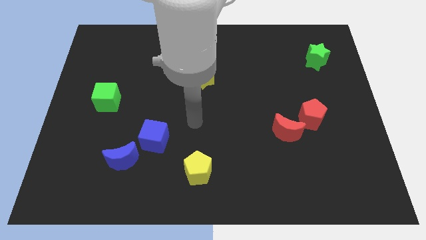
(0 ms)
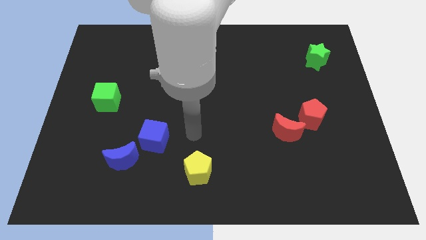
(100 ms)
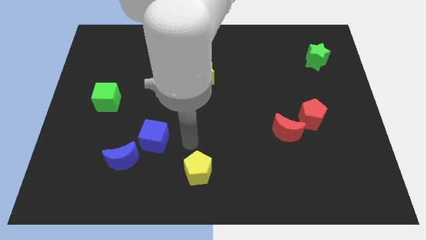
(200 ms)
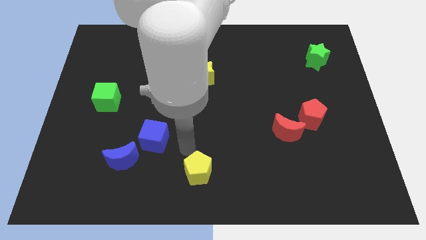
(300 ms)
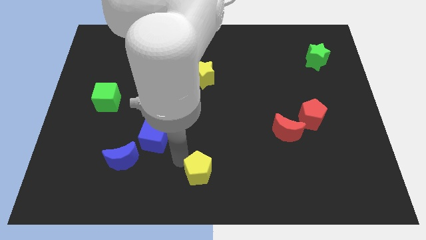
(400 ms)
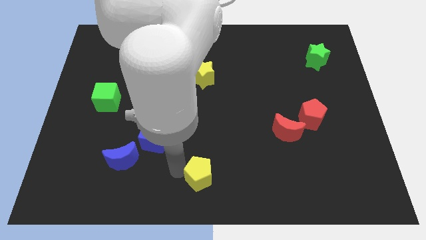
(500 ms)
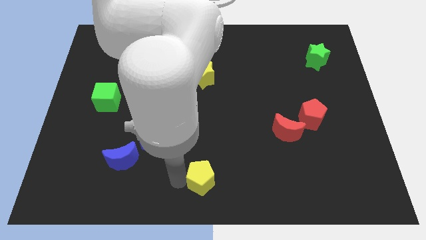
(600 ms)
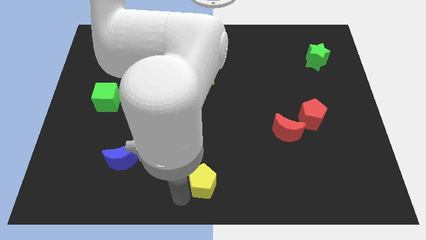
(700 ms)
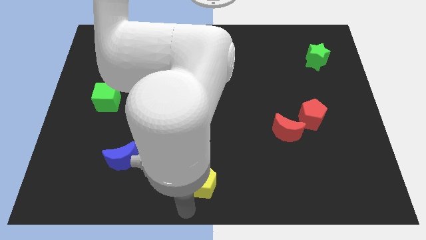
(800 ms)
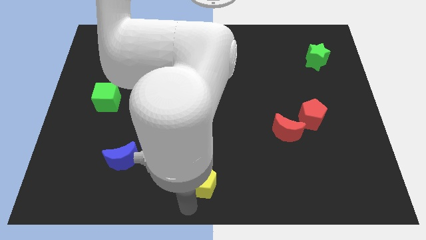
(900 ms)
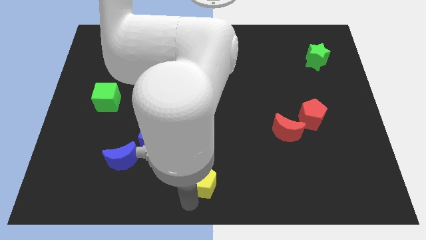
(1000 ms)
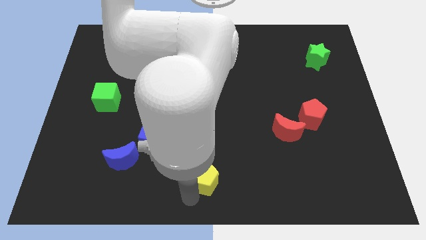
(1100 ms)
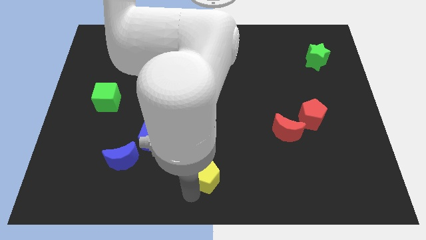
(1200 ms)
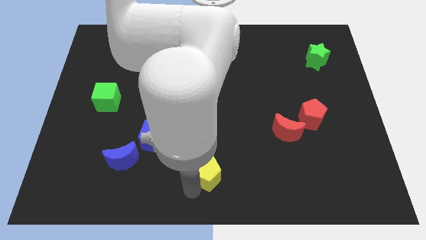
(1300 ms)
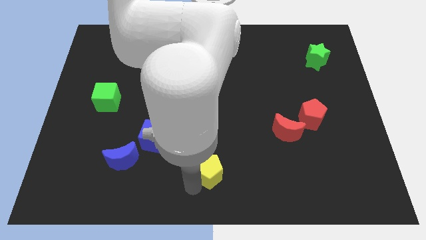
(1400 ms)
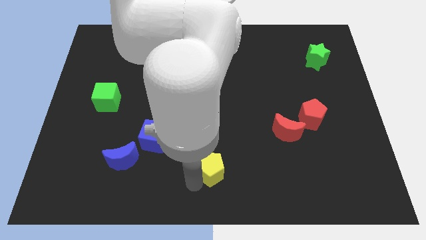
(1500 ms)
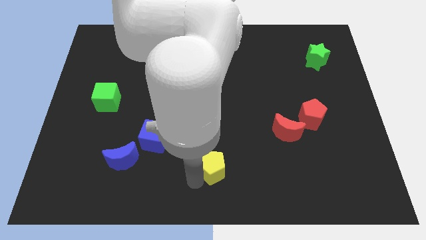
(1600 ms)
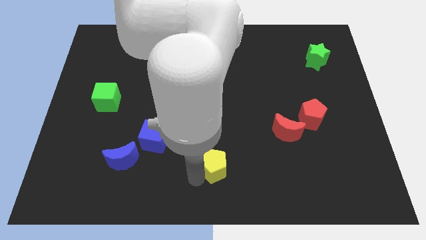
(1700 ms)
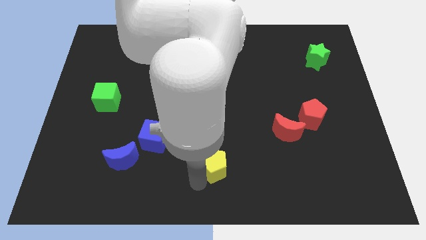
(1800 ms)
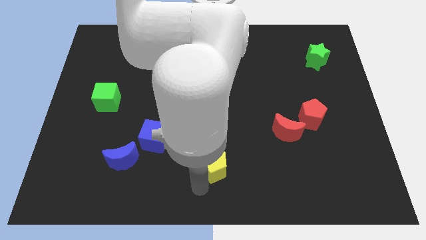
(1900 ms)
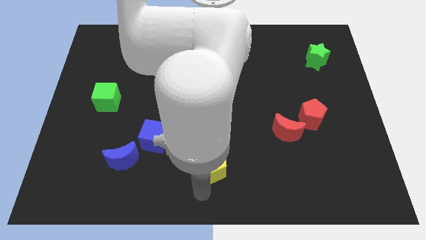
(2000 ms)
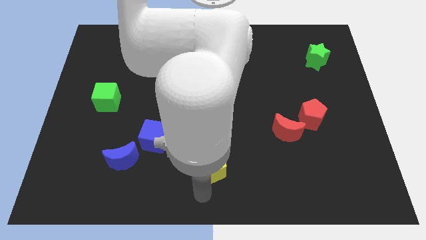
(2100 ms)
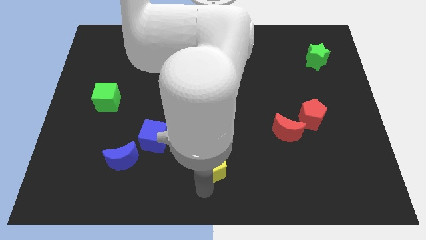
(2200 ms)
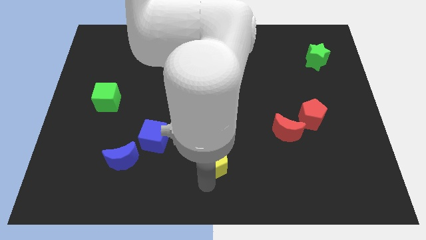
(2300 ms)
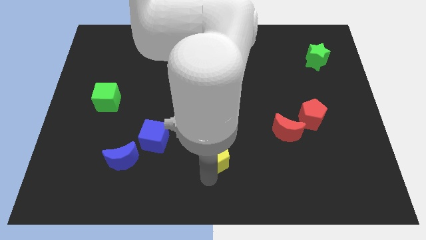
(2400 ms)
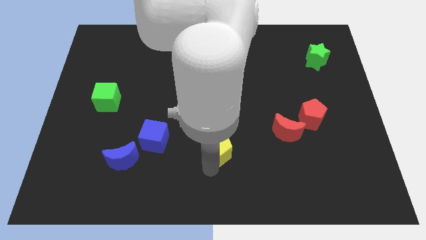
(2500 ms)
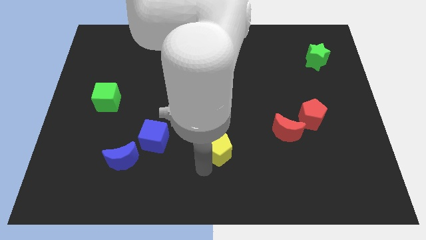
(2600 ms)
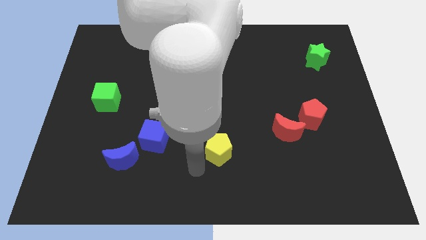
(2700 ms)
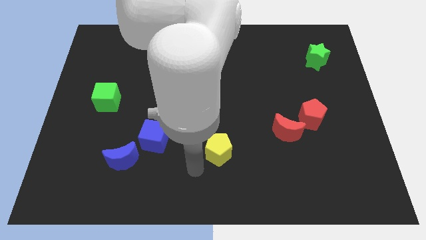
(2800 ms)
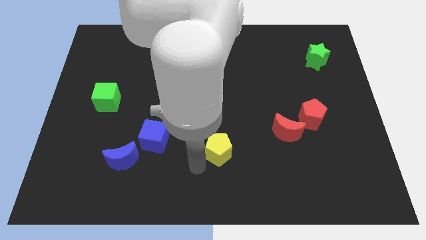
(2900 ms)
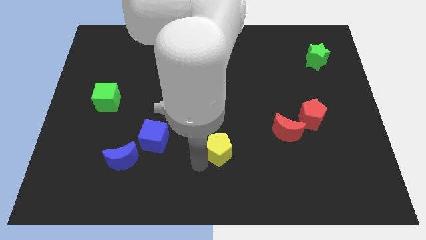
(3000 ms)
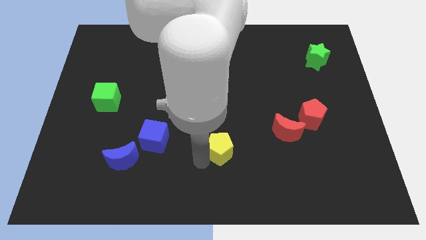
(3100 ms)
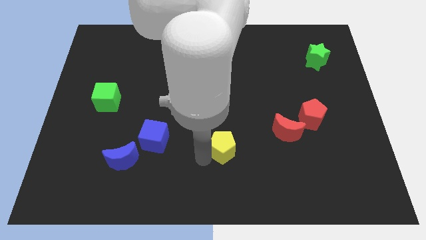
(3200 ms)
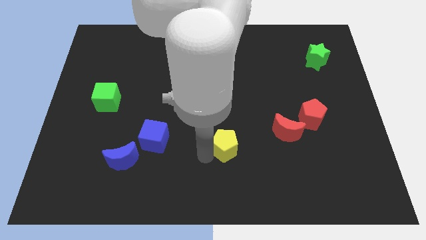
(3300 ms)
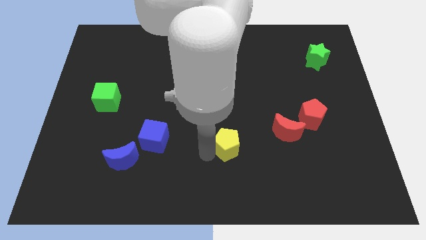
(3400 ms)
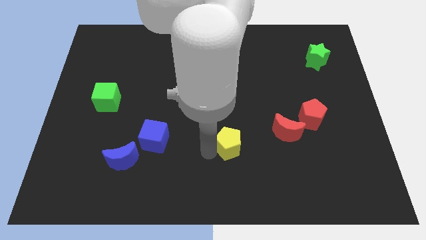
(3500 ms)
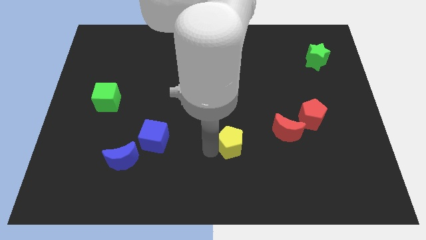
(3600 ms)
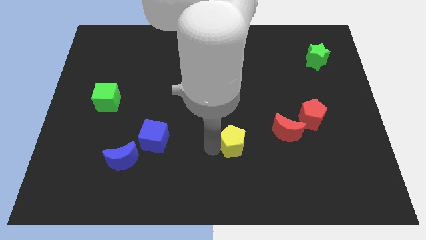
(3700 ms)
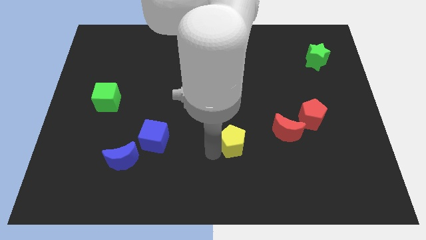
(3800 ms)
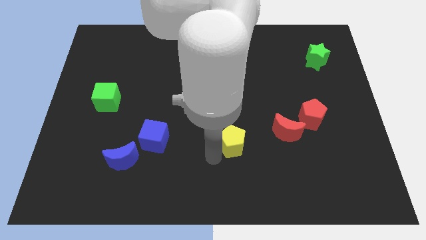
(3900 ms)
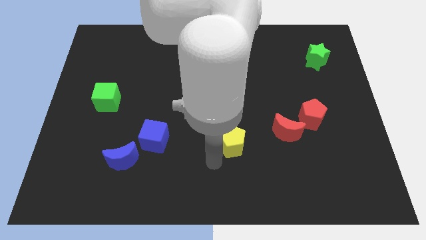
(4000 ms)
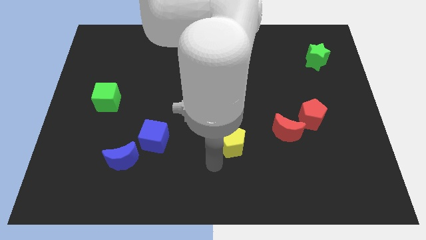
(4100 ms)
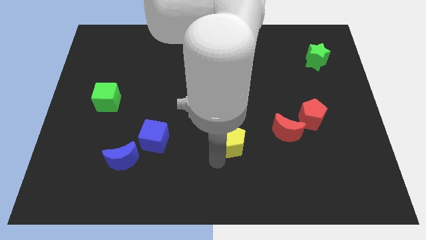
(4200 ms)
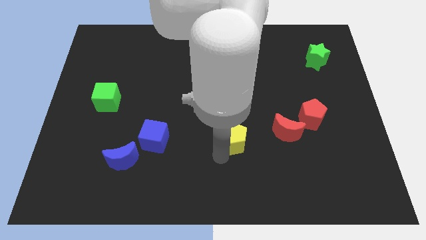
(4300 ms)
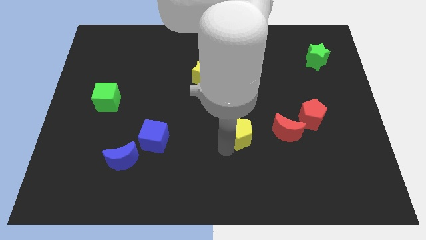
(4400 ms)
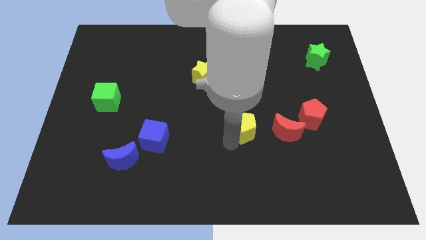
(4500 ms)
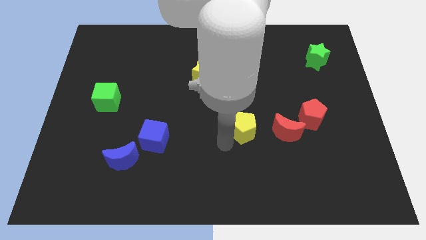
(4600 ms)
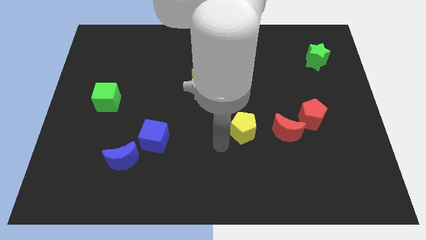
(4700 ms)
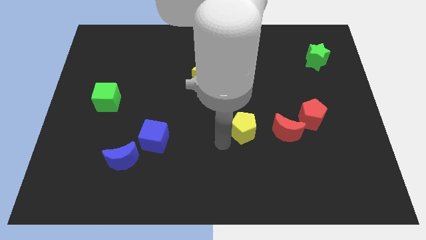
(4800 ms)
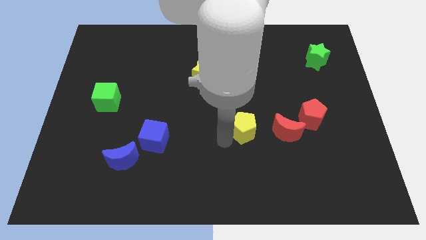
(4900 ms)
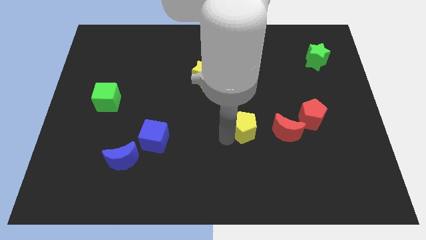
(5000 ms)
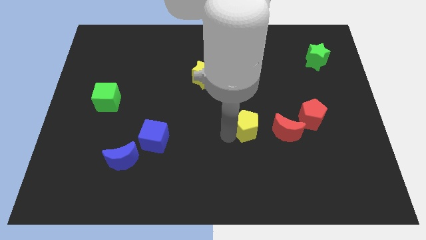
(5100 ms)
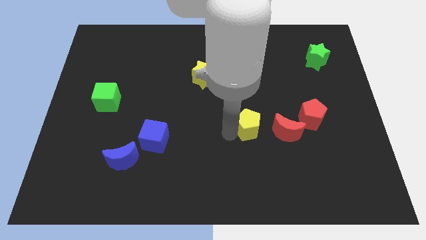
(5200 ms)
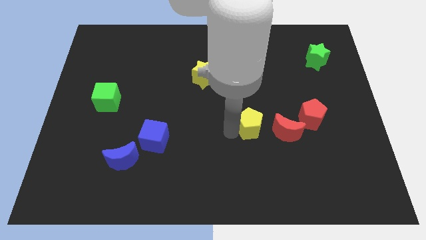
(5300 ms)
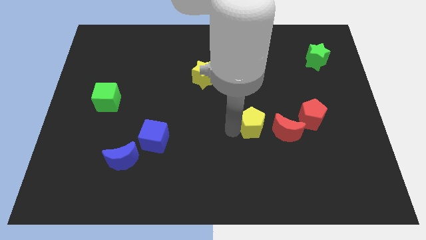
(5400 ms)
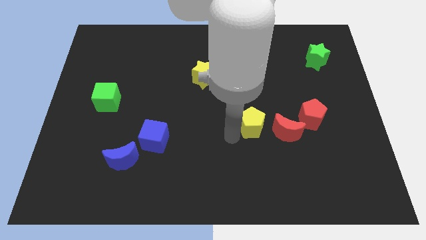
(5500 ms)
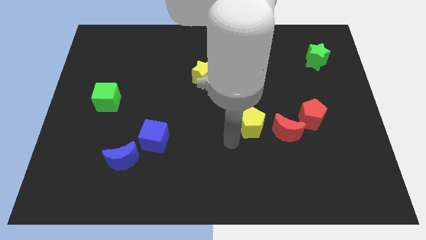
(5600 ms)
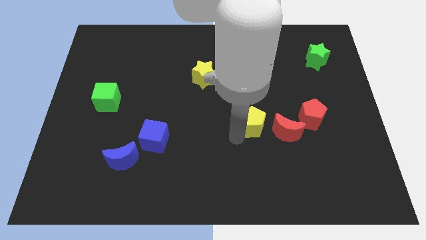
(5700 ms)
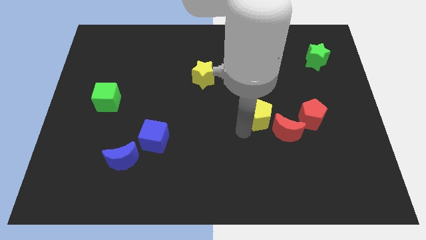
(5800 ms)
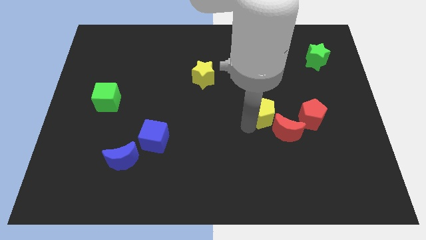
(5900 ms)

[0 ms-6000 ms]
move the yellow pentagon up and to the right diagonally

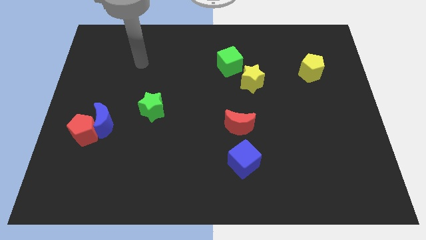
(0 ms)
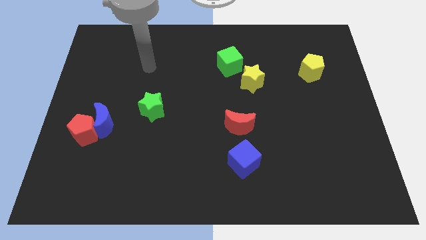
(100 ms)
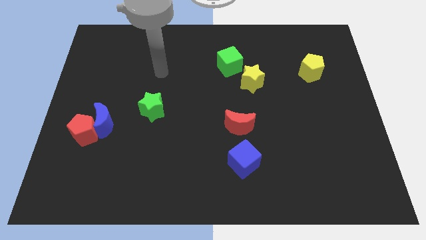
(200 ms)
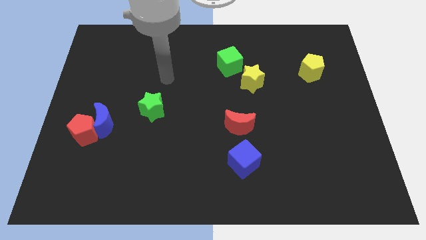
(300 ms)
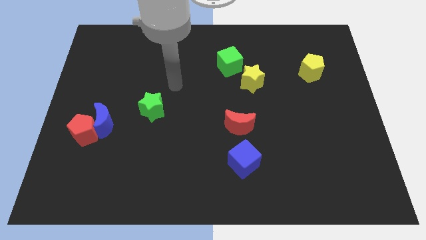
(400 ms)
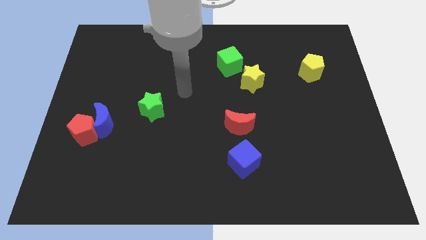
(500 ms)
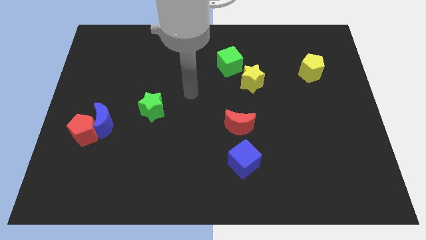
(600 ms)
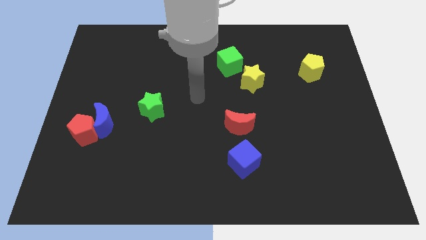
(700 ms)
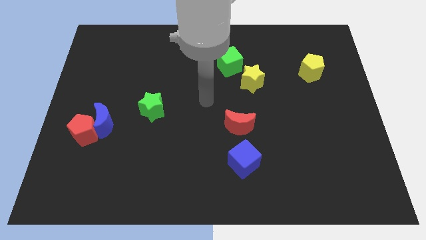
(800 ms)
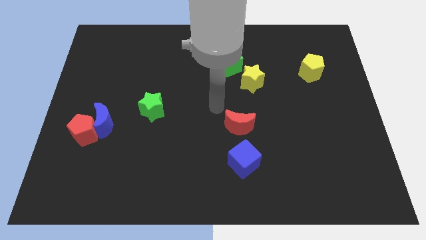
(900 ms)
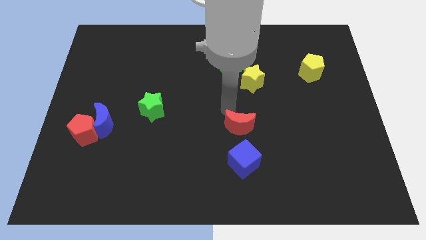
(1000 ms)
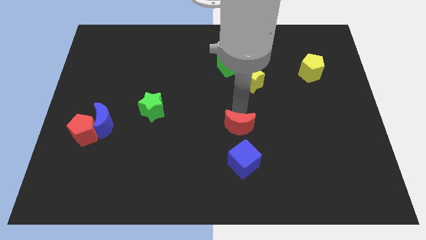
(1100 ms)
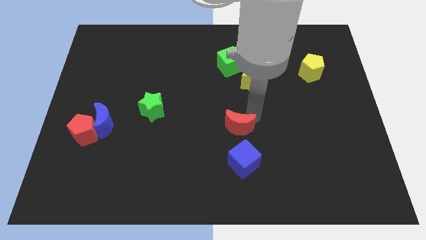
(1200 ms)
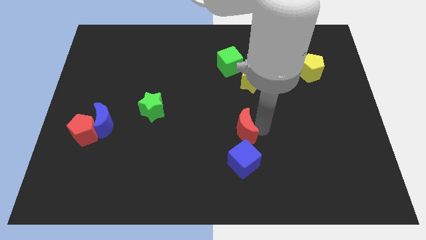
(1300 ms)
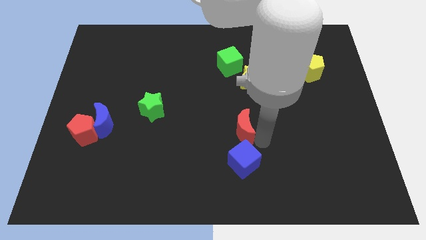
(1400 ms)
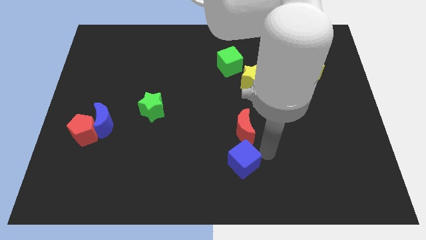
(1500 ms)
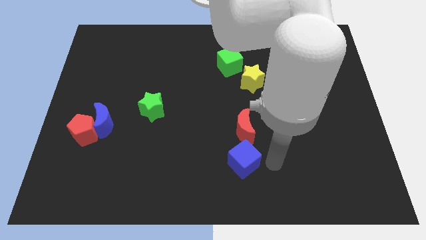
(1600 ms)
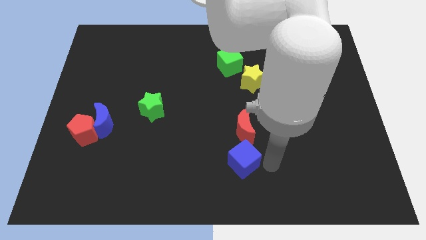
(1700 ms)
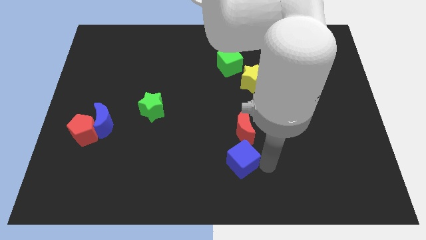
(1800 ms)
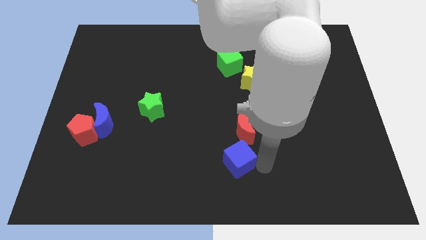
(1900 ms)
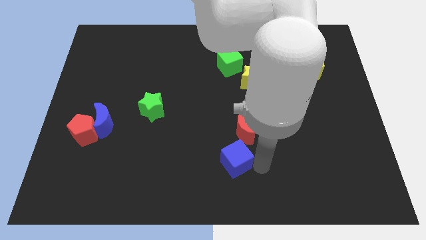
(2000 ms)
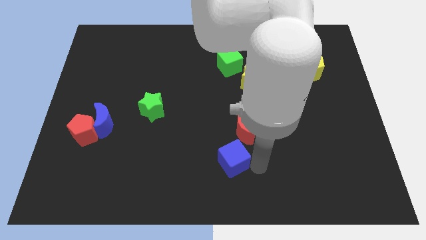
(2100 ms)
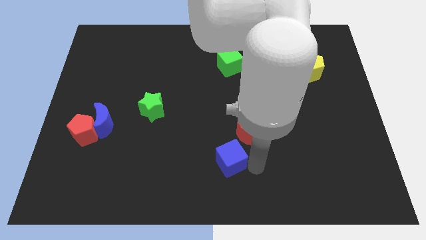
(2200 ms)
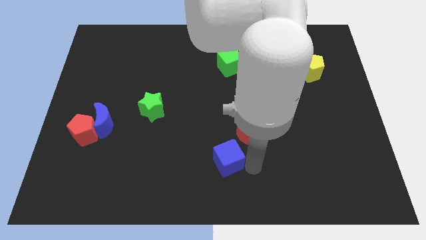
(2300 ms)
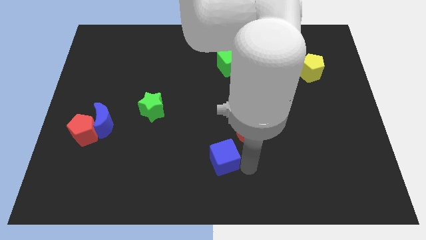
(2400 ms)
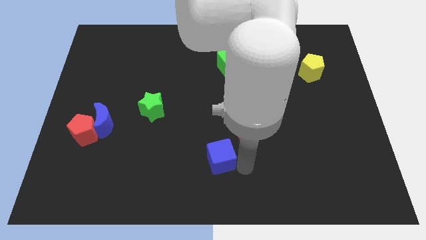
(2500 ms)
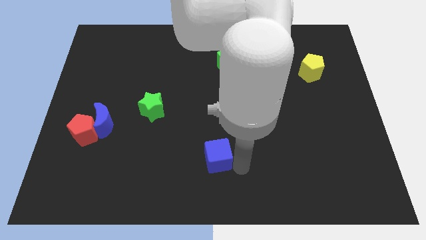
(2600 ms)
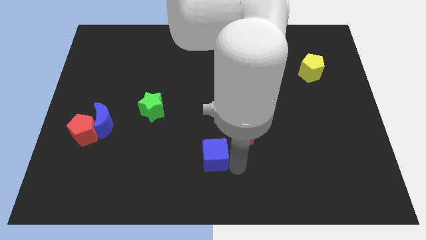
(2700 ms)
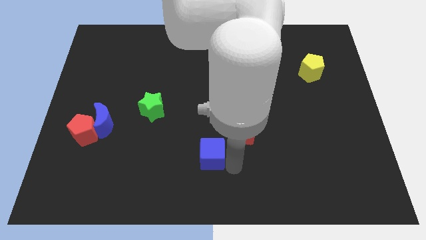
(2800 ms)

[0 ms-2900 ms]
move the blue cube left a little bit
